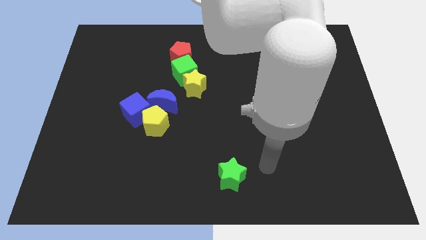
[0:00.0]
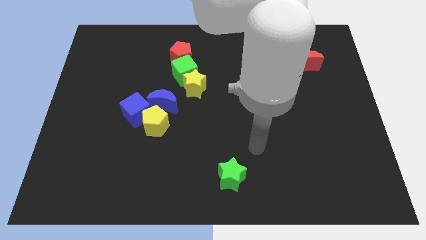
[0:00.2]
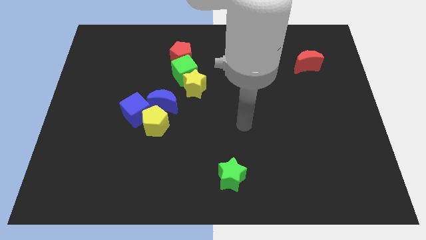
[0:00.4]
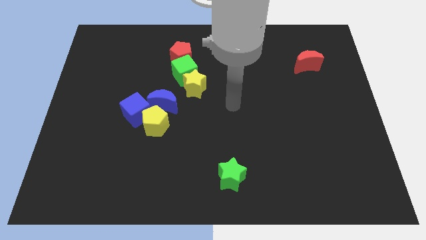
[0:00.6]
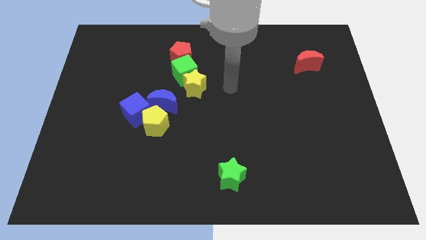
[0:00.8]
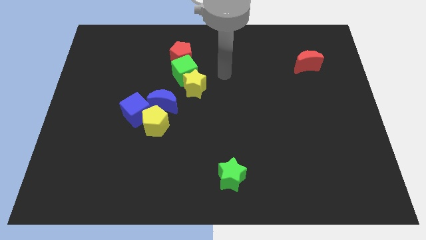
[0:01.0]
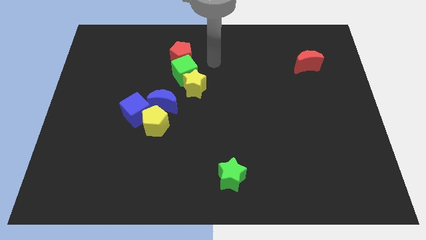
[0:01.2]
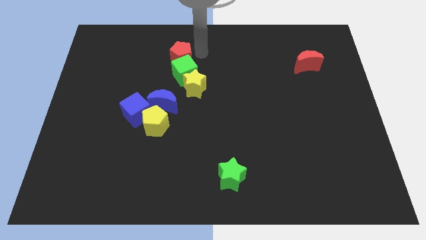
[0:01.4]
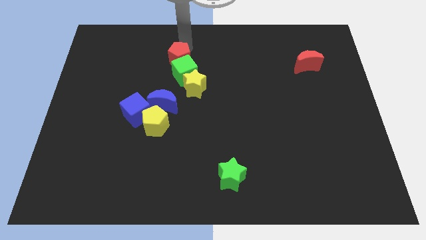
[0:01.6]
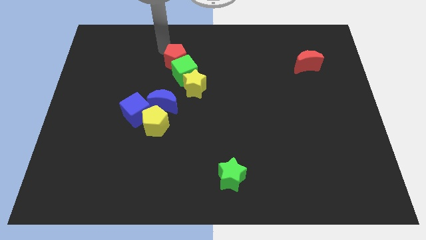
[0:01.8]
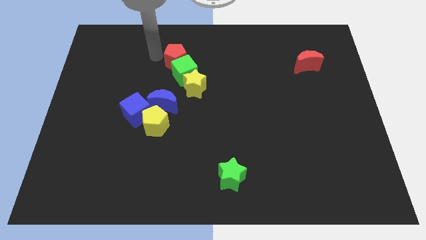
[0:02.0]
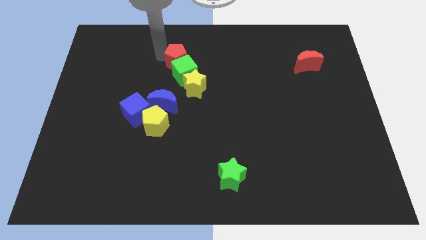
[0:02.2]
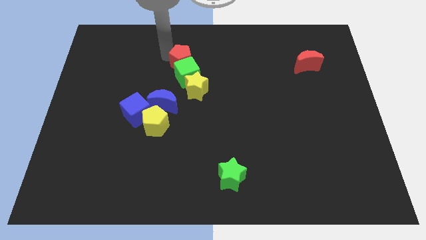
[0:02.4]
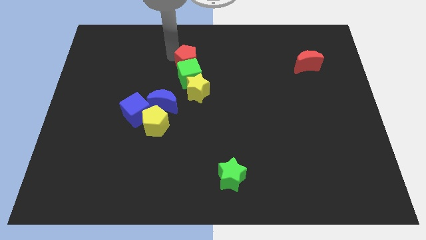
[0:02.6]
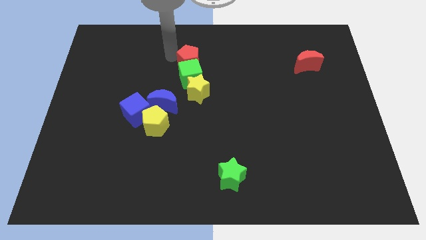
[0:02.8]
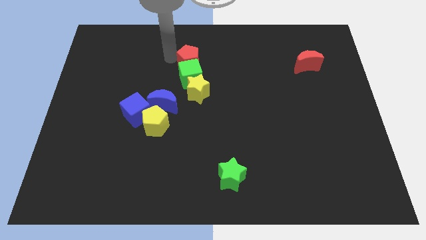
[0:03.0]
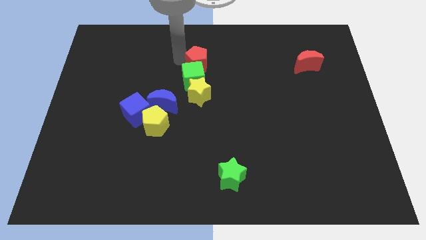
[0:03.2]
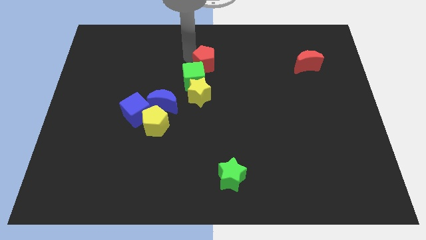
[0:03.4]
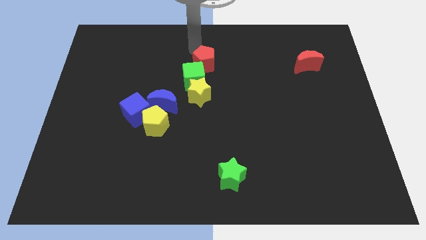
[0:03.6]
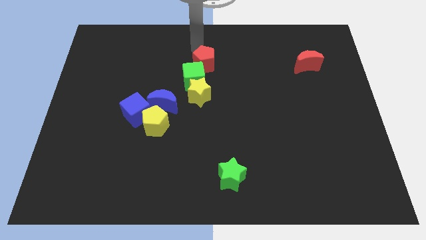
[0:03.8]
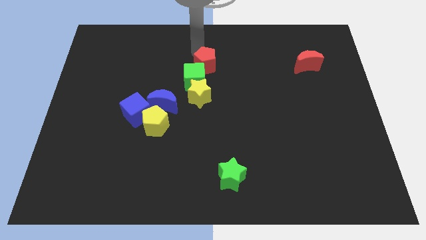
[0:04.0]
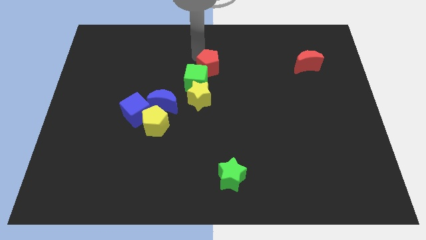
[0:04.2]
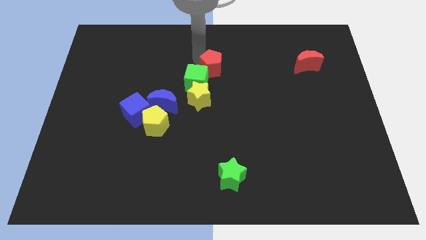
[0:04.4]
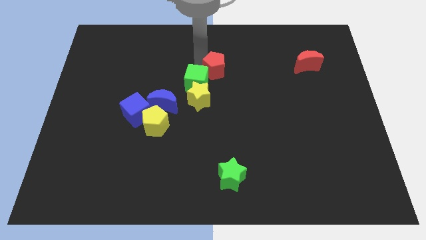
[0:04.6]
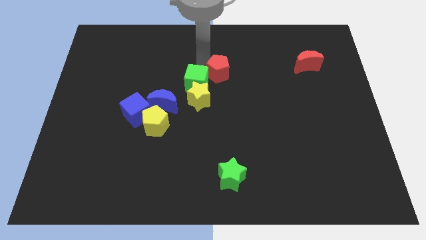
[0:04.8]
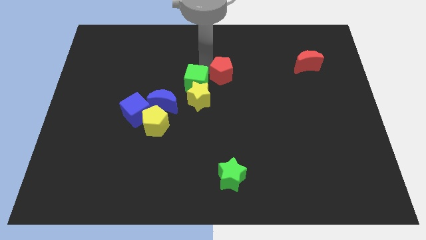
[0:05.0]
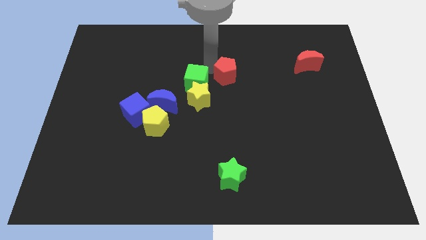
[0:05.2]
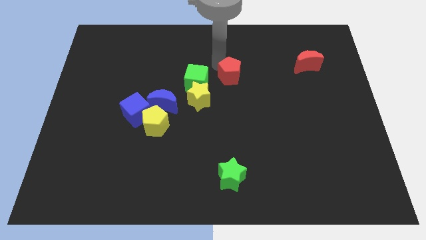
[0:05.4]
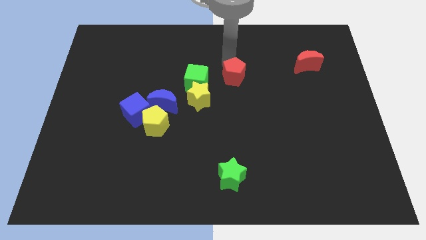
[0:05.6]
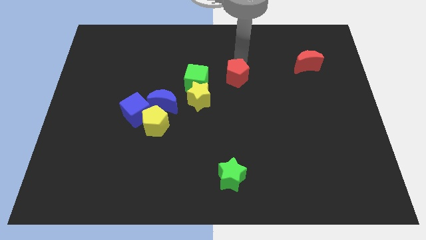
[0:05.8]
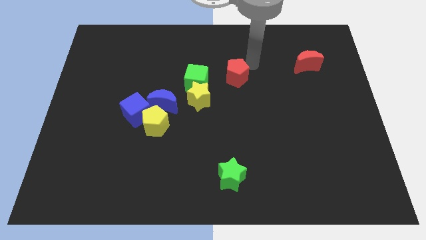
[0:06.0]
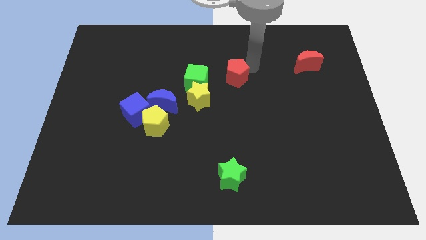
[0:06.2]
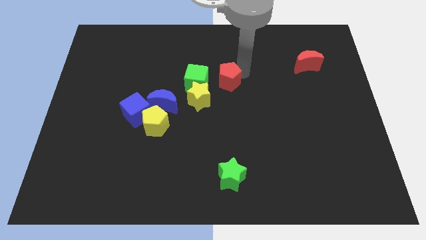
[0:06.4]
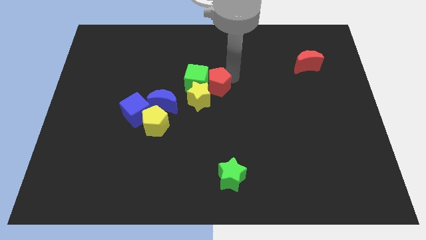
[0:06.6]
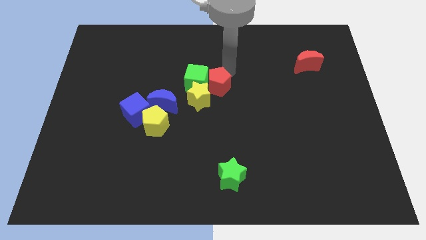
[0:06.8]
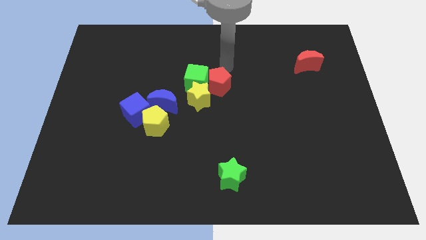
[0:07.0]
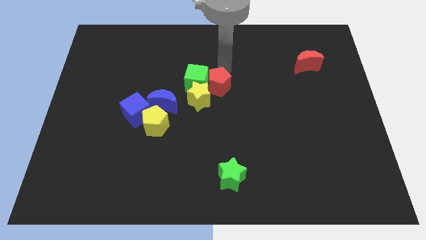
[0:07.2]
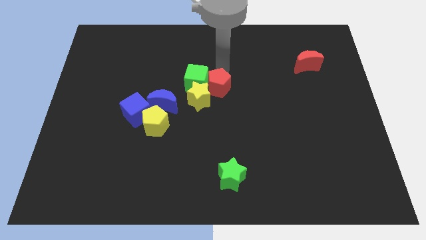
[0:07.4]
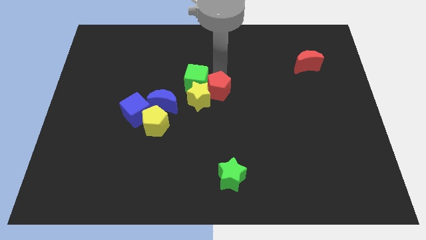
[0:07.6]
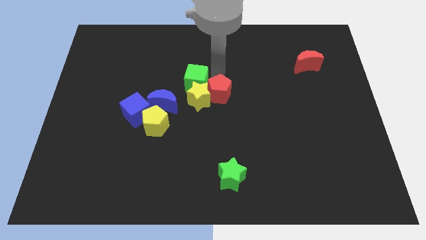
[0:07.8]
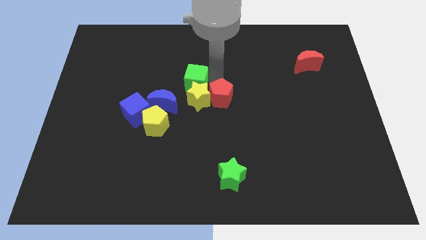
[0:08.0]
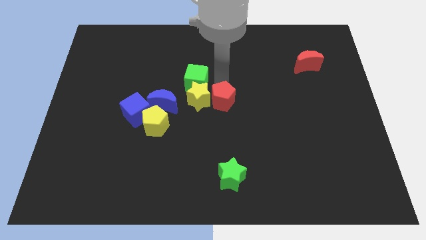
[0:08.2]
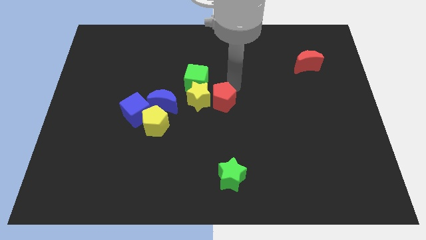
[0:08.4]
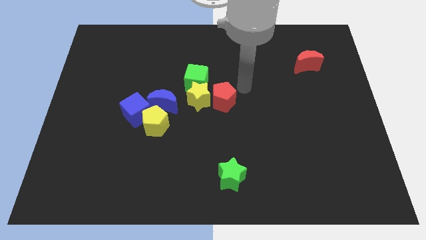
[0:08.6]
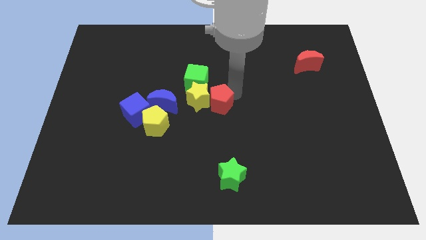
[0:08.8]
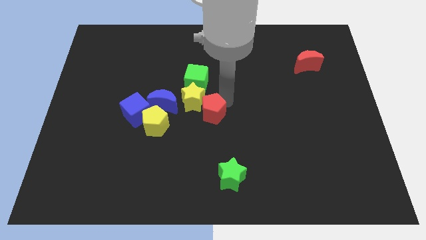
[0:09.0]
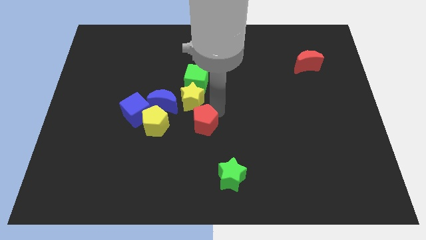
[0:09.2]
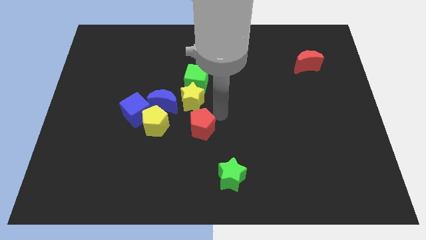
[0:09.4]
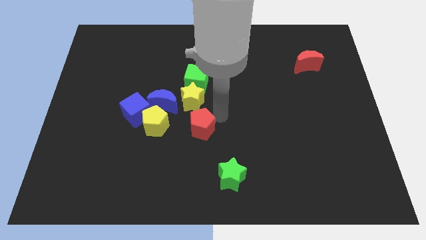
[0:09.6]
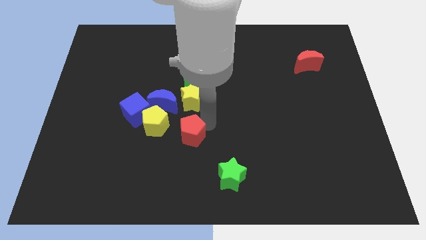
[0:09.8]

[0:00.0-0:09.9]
put the red pentagon to the bottom right of the yellow pentagon

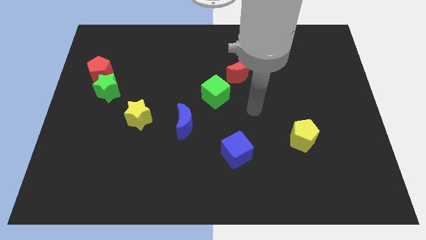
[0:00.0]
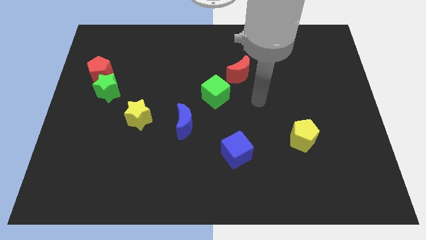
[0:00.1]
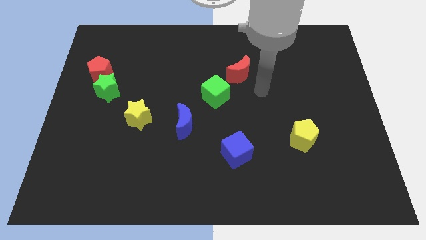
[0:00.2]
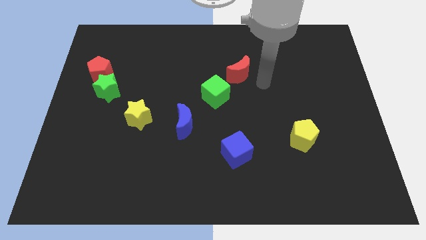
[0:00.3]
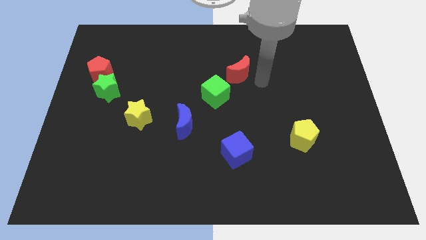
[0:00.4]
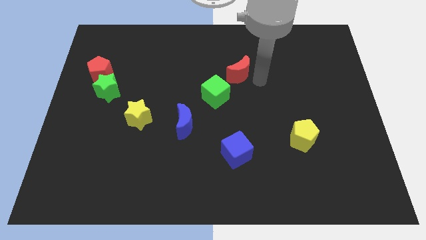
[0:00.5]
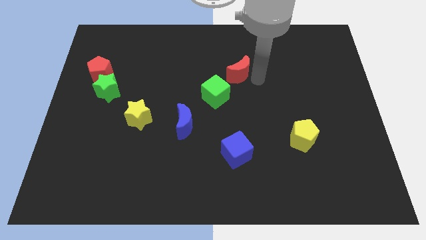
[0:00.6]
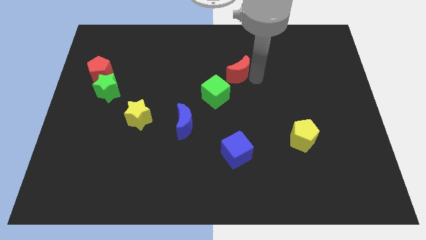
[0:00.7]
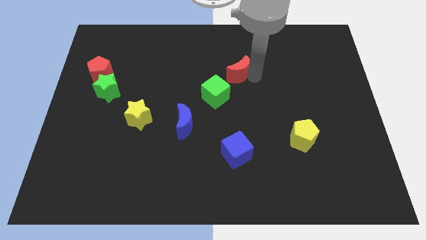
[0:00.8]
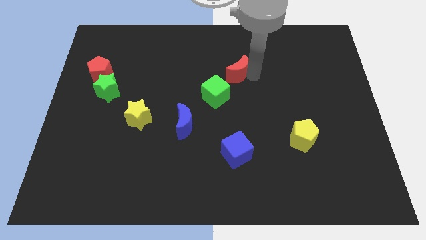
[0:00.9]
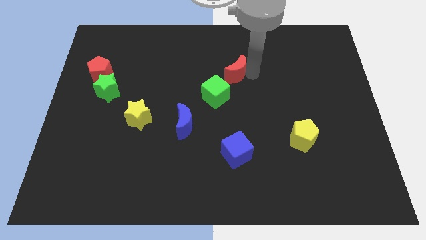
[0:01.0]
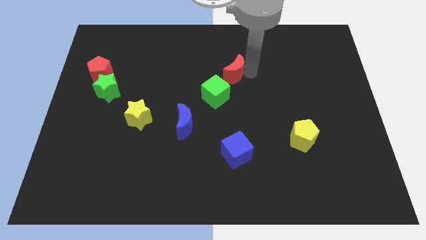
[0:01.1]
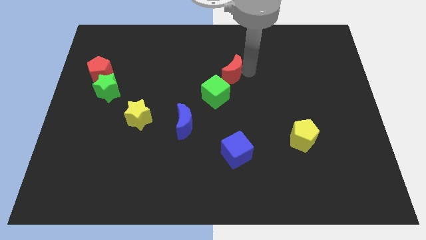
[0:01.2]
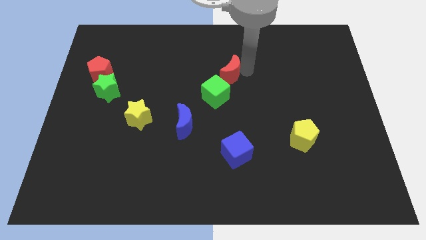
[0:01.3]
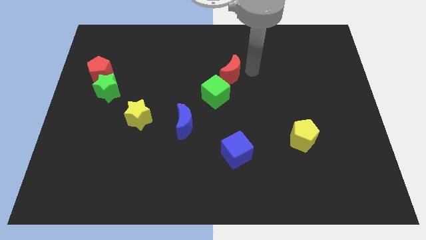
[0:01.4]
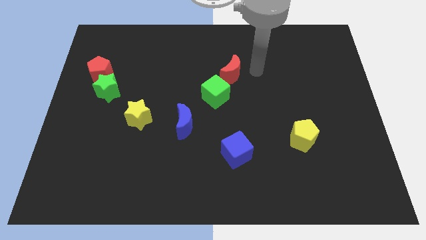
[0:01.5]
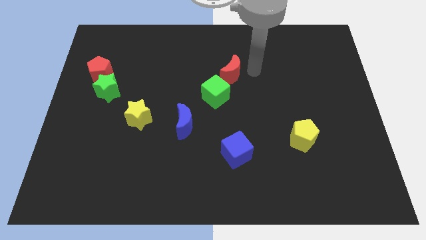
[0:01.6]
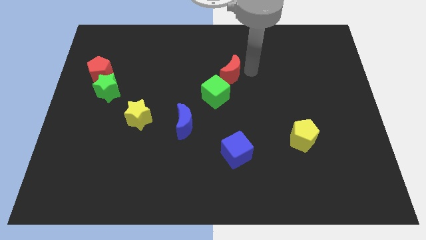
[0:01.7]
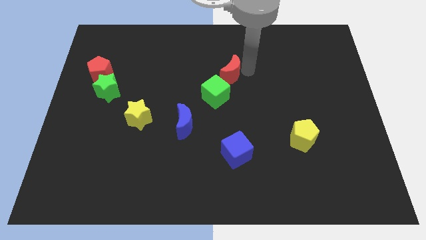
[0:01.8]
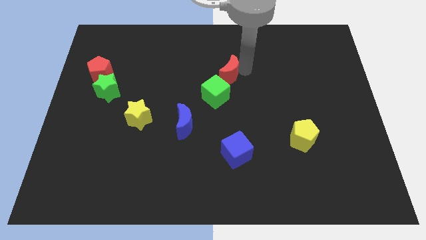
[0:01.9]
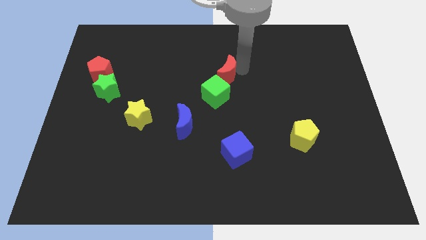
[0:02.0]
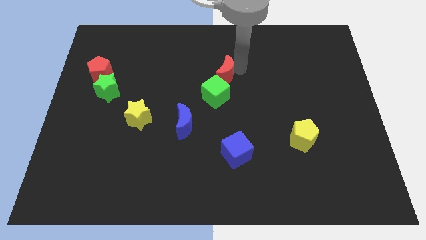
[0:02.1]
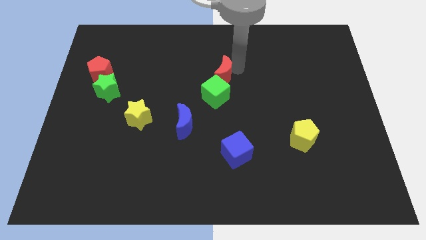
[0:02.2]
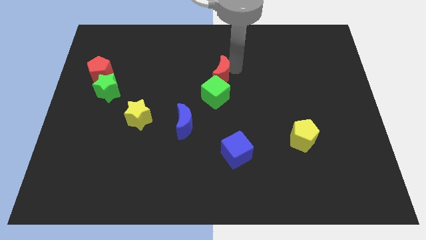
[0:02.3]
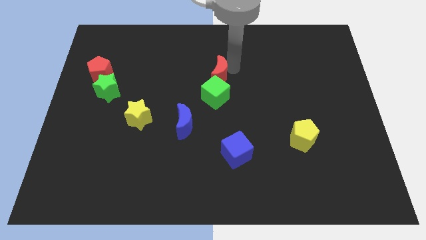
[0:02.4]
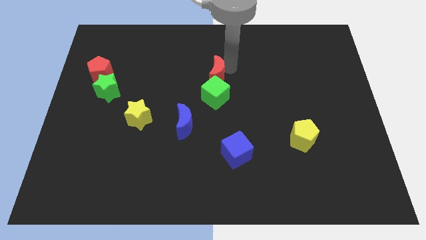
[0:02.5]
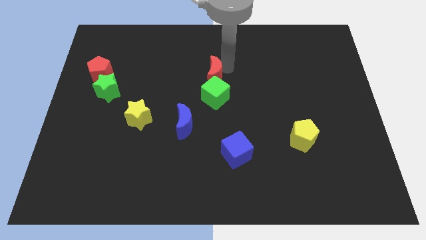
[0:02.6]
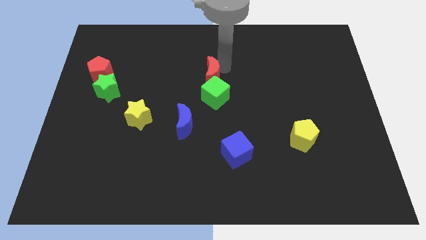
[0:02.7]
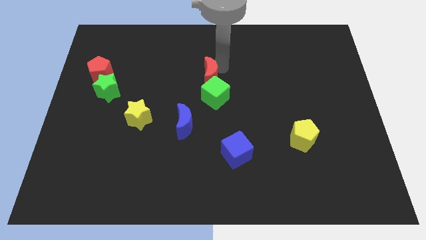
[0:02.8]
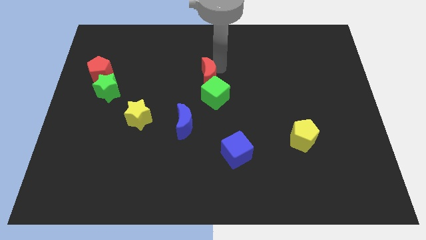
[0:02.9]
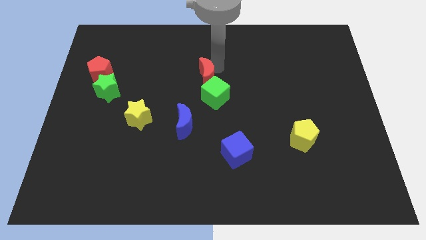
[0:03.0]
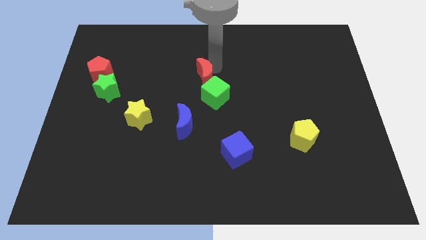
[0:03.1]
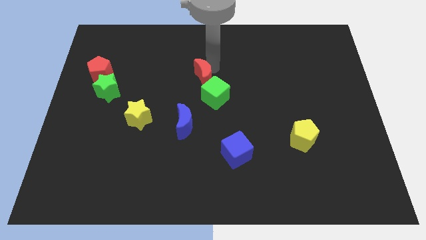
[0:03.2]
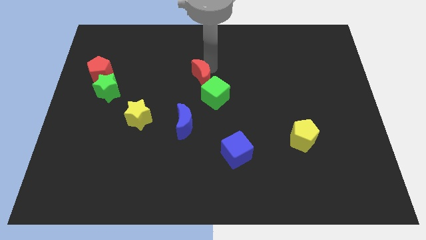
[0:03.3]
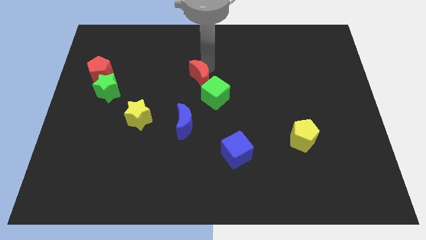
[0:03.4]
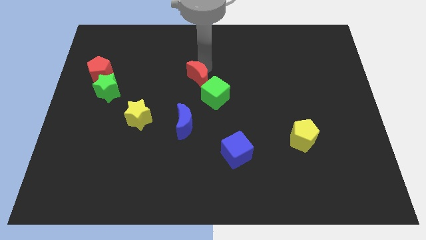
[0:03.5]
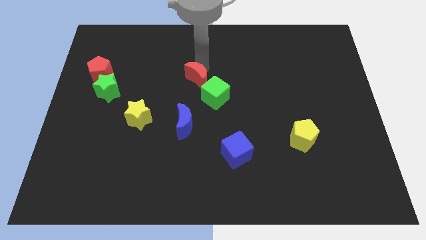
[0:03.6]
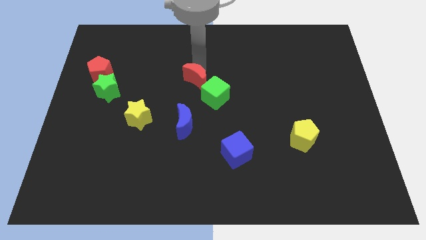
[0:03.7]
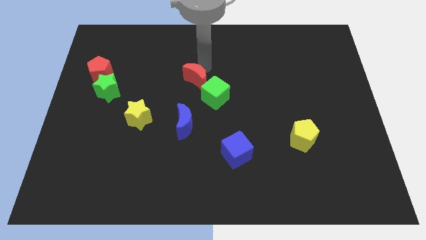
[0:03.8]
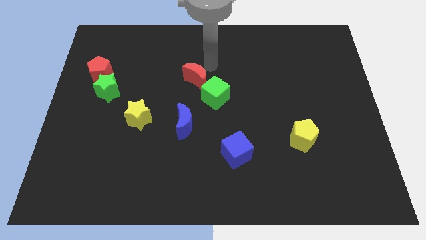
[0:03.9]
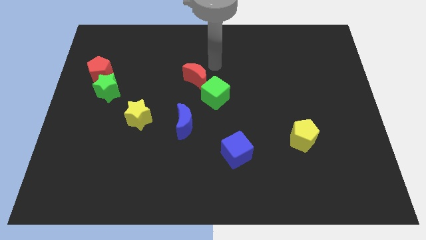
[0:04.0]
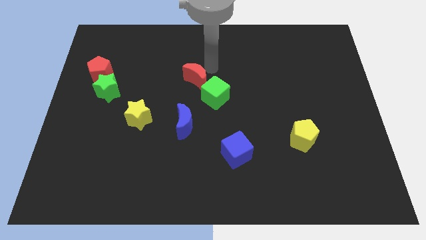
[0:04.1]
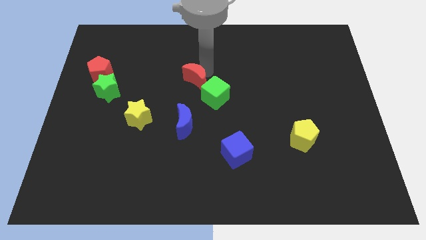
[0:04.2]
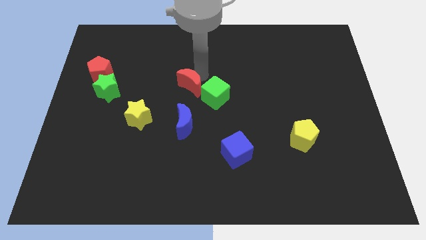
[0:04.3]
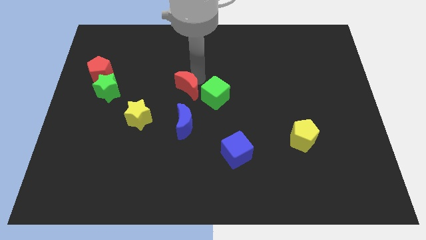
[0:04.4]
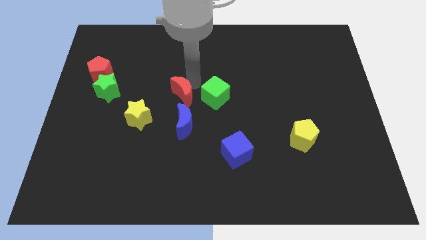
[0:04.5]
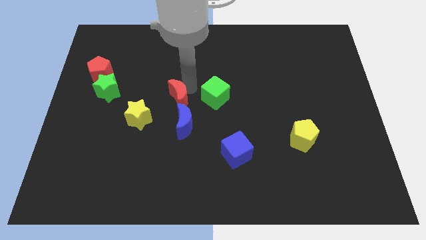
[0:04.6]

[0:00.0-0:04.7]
push the red moon diagonally up and to the left of the blue moon
